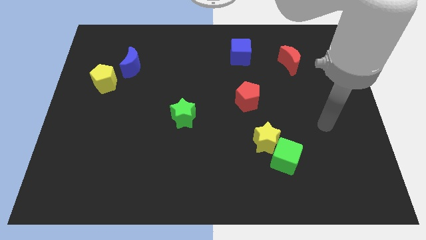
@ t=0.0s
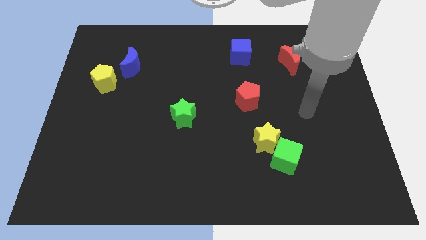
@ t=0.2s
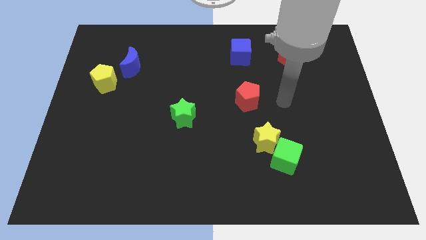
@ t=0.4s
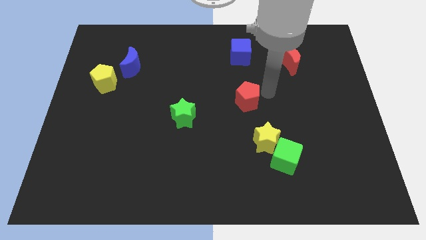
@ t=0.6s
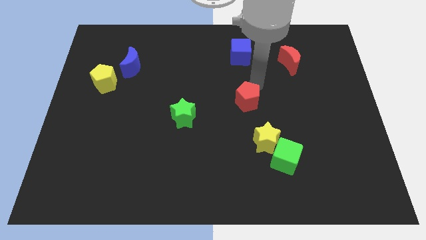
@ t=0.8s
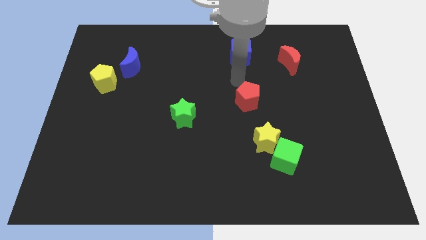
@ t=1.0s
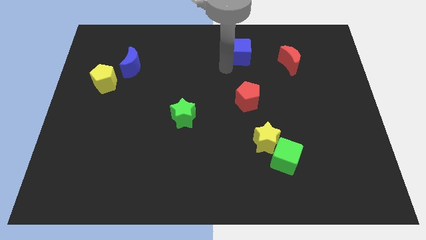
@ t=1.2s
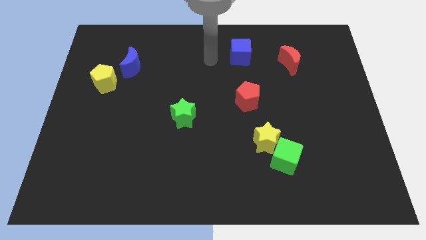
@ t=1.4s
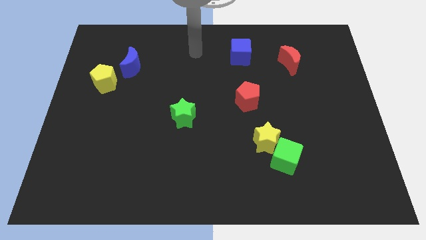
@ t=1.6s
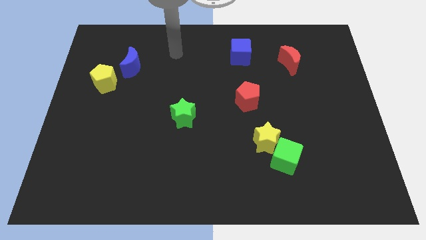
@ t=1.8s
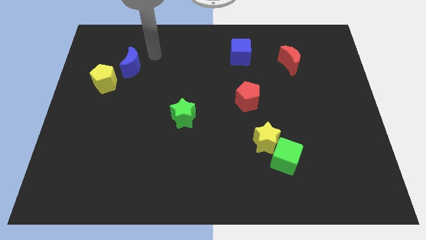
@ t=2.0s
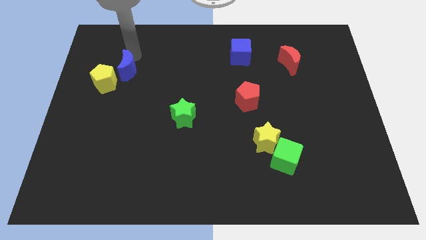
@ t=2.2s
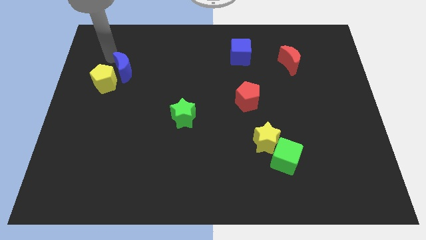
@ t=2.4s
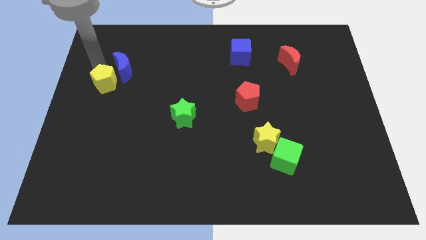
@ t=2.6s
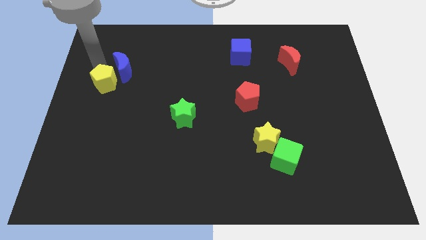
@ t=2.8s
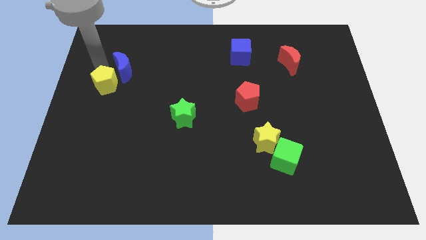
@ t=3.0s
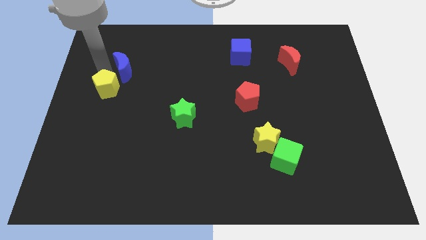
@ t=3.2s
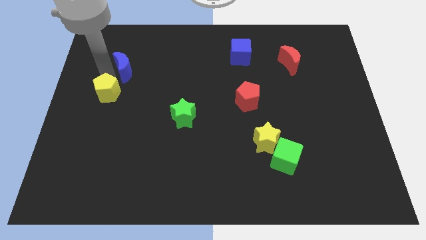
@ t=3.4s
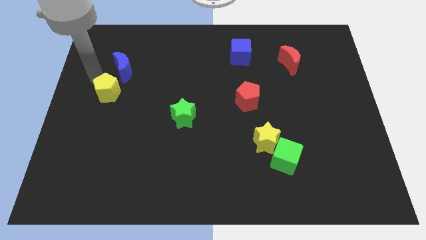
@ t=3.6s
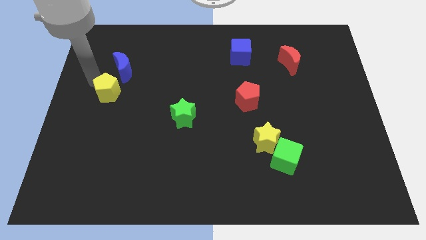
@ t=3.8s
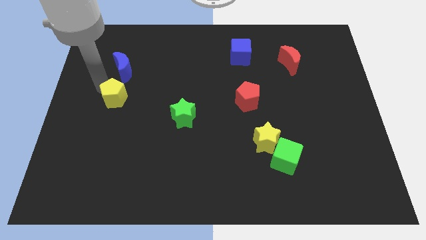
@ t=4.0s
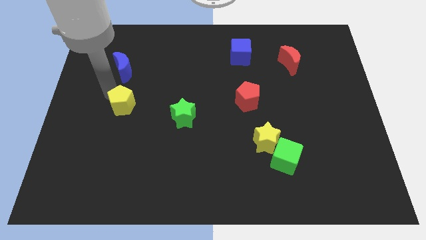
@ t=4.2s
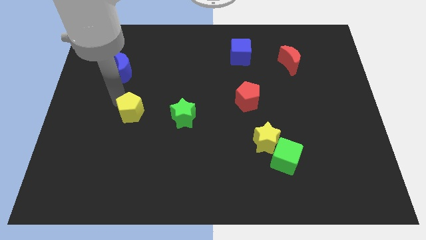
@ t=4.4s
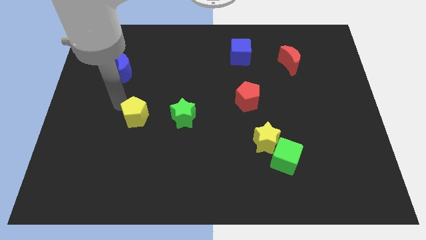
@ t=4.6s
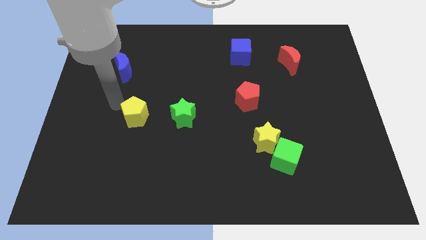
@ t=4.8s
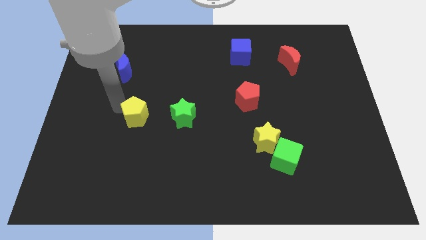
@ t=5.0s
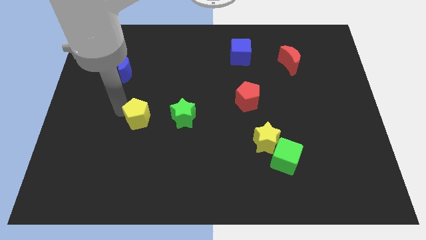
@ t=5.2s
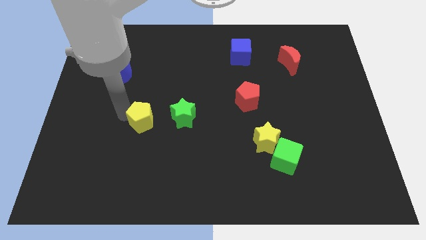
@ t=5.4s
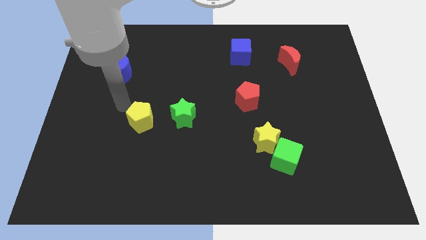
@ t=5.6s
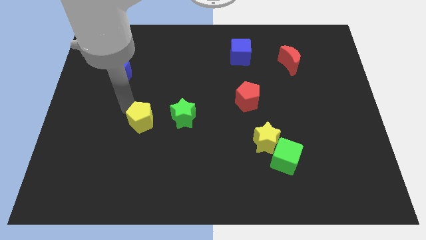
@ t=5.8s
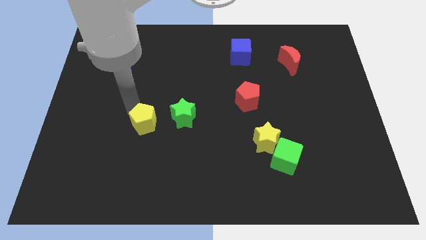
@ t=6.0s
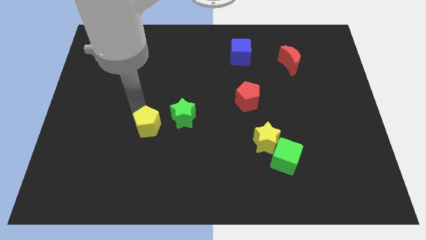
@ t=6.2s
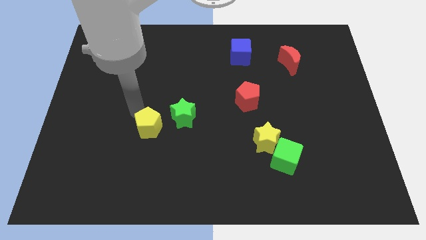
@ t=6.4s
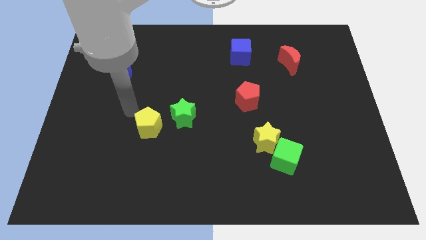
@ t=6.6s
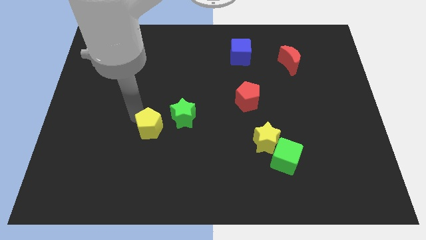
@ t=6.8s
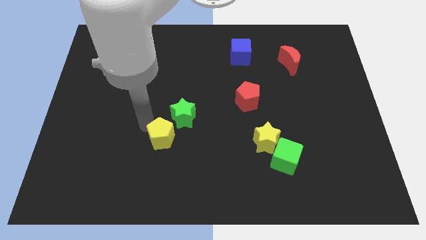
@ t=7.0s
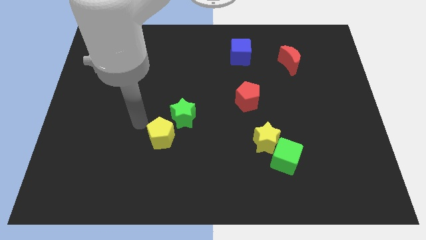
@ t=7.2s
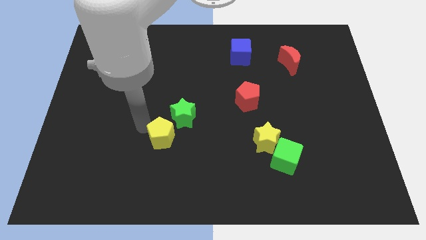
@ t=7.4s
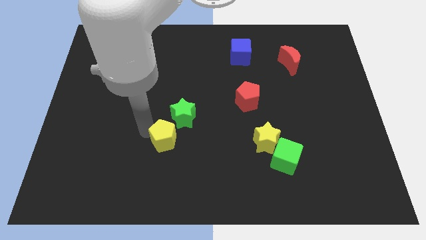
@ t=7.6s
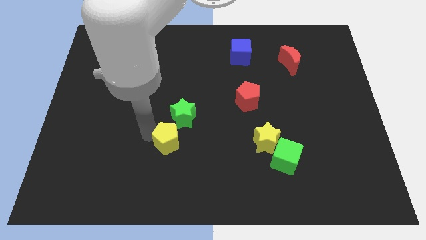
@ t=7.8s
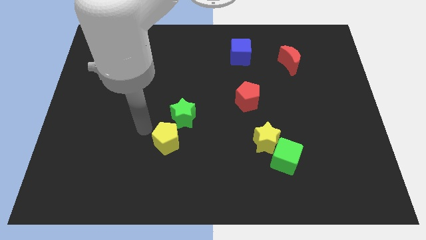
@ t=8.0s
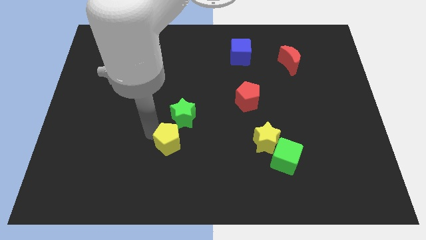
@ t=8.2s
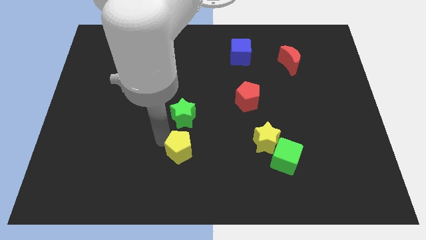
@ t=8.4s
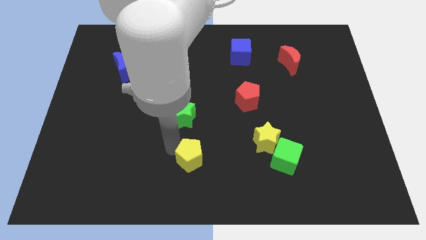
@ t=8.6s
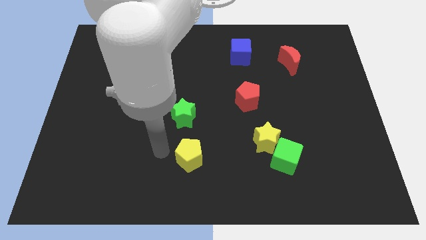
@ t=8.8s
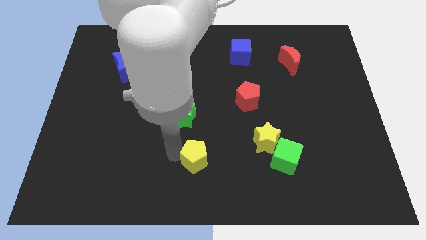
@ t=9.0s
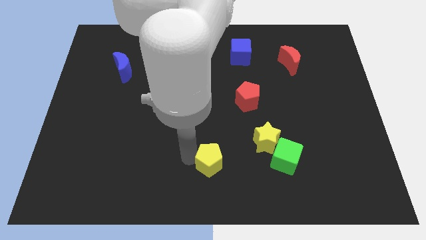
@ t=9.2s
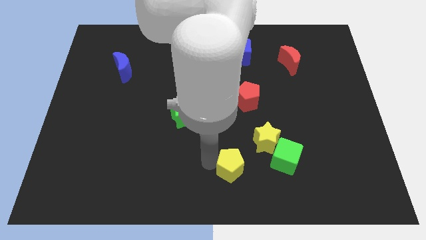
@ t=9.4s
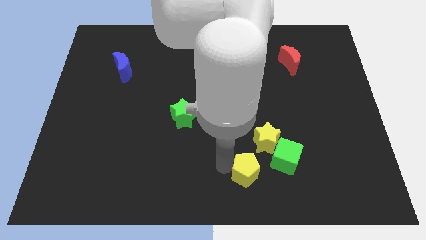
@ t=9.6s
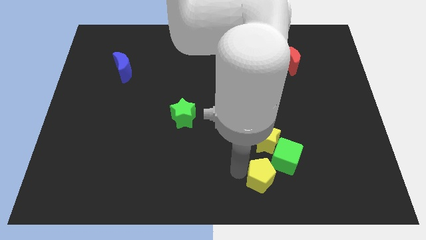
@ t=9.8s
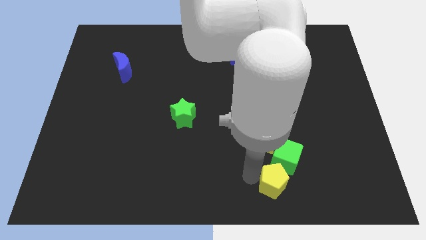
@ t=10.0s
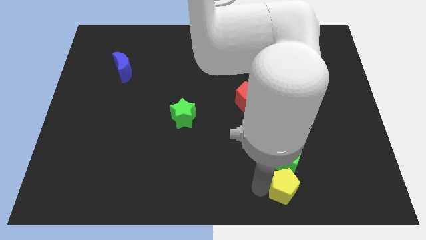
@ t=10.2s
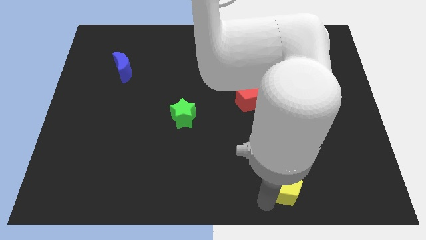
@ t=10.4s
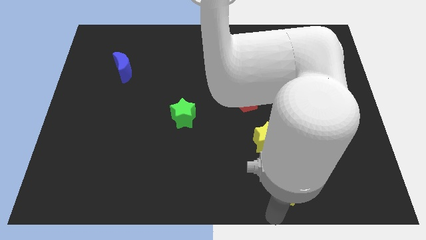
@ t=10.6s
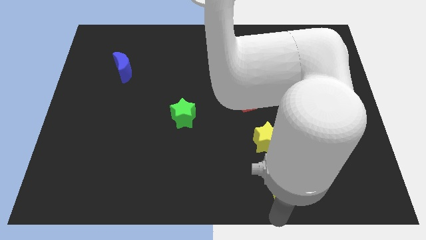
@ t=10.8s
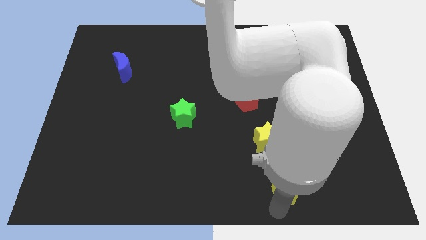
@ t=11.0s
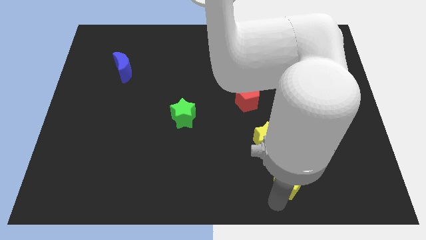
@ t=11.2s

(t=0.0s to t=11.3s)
put the yellow pentagon to the bottom right of the yellow star

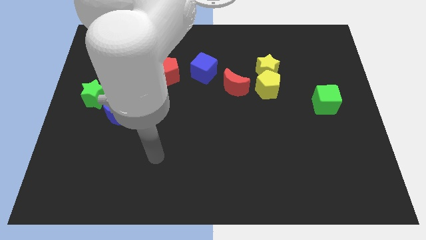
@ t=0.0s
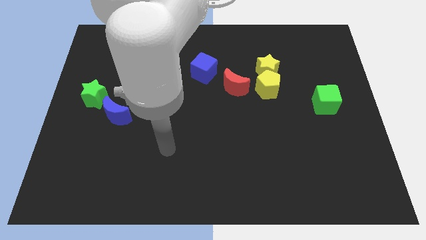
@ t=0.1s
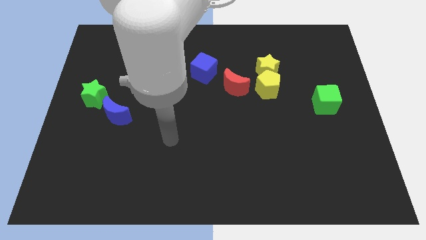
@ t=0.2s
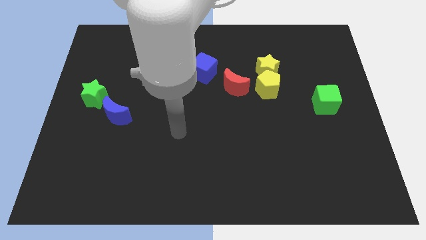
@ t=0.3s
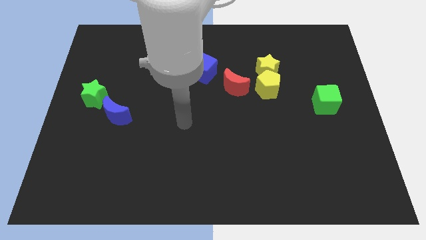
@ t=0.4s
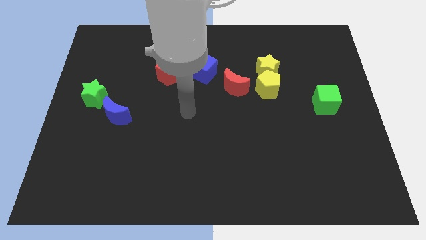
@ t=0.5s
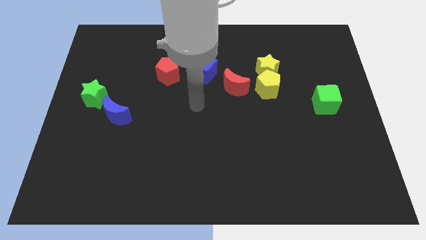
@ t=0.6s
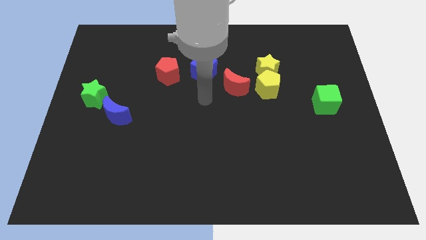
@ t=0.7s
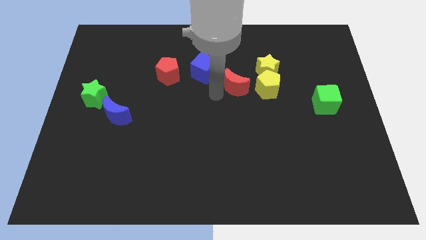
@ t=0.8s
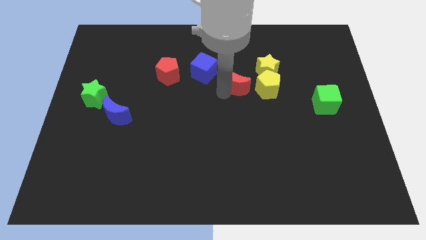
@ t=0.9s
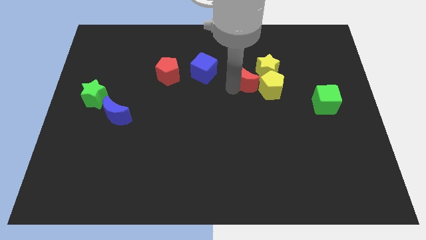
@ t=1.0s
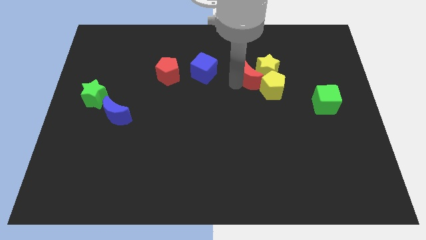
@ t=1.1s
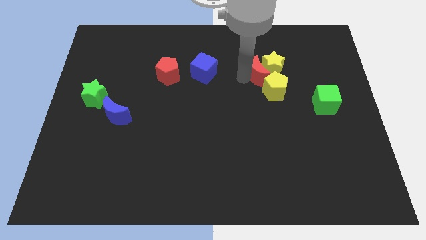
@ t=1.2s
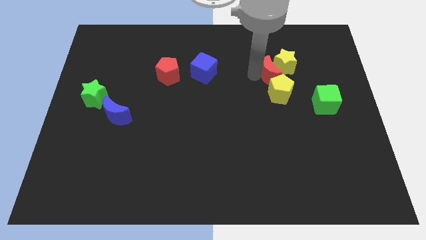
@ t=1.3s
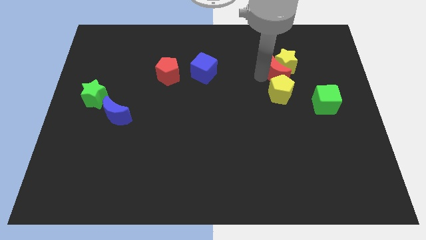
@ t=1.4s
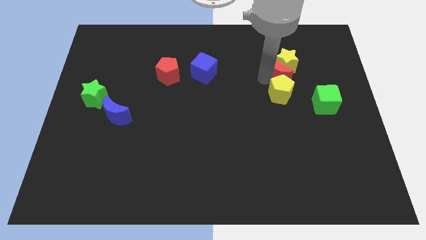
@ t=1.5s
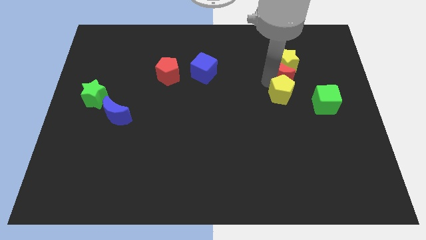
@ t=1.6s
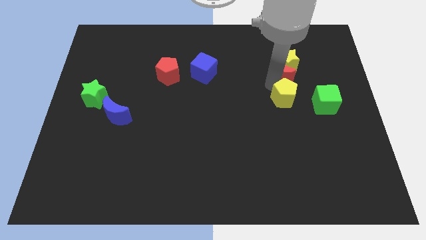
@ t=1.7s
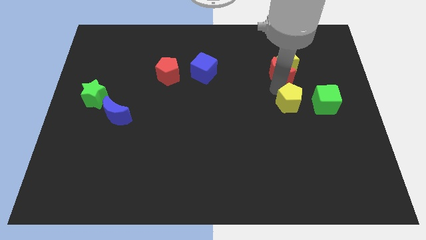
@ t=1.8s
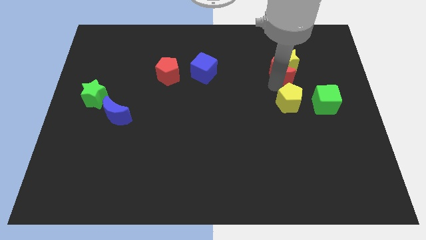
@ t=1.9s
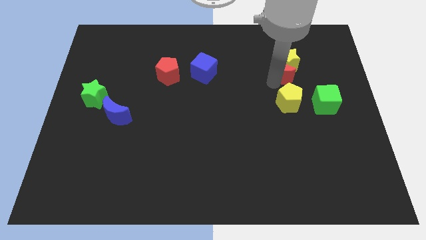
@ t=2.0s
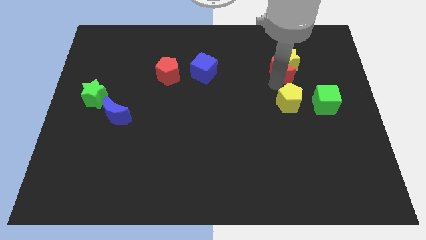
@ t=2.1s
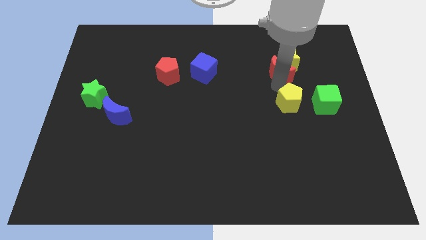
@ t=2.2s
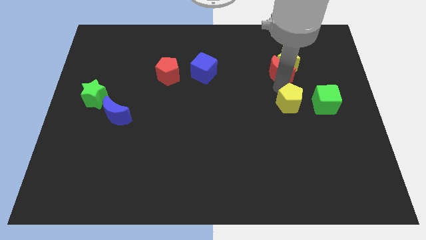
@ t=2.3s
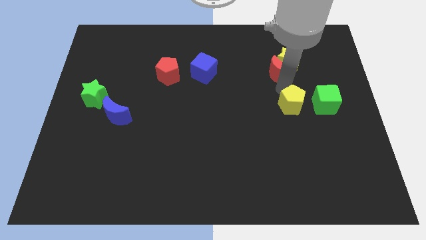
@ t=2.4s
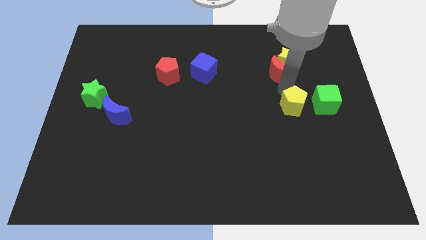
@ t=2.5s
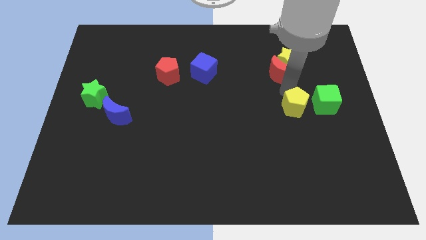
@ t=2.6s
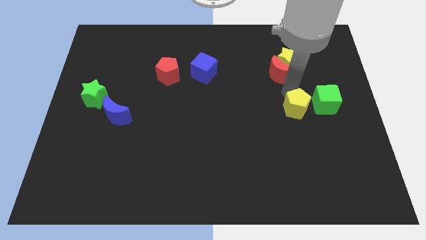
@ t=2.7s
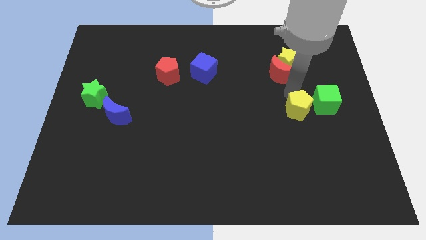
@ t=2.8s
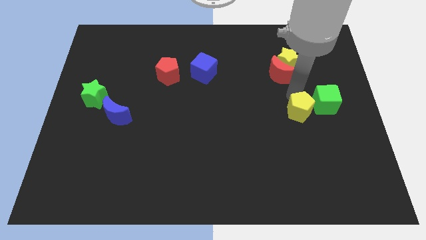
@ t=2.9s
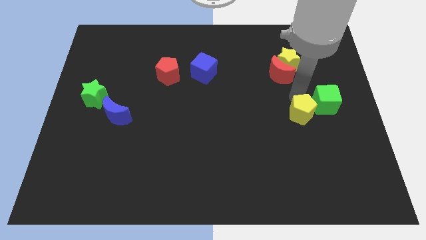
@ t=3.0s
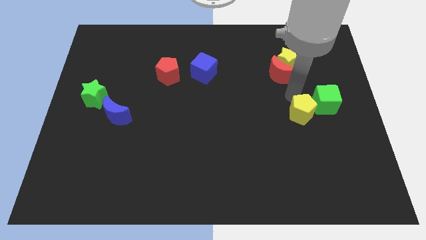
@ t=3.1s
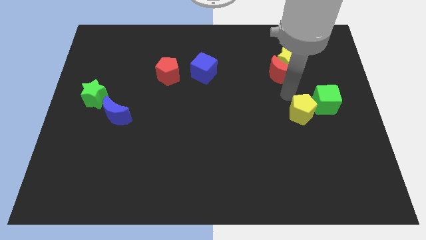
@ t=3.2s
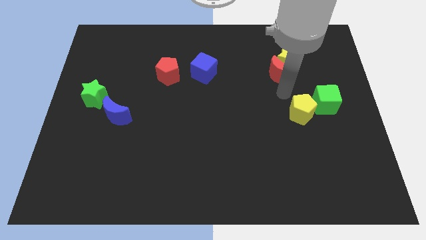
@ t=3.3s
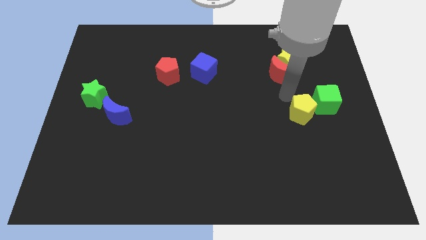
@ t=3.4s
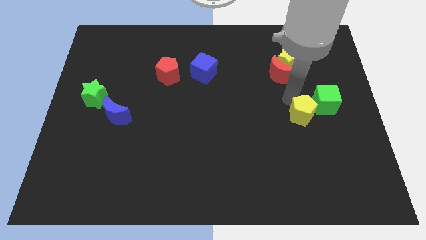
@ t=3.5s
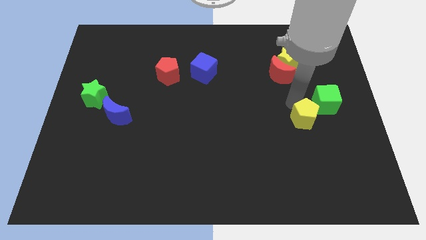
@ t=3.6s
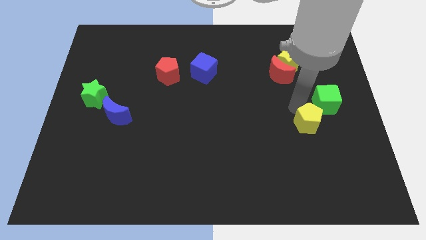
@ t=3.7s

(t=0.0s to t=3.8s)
put the yellow pentagon to the bottom side of the green cube
